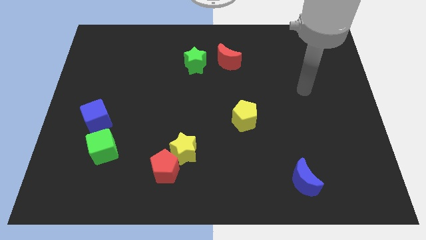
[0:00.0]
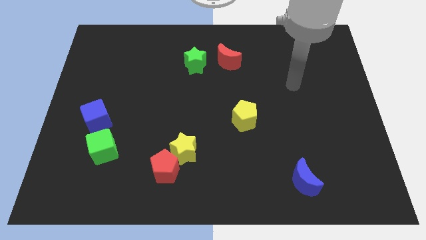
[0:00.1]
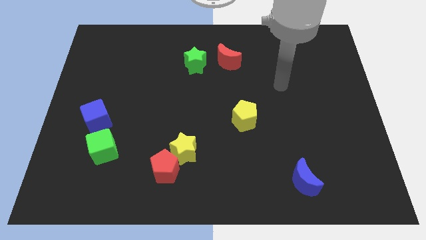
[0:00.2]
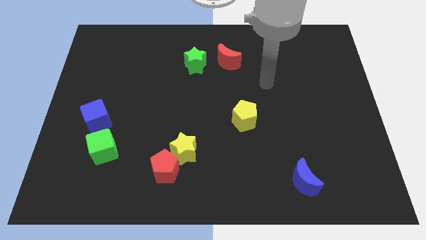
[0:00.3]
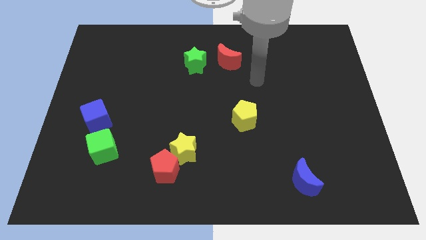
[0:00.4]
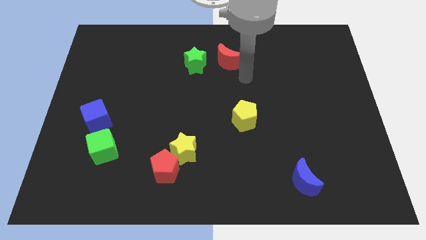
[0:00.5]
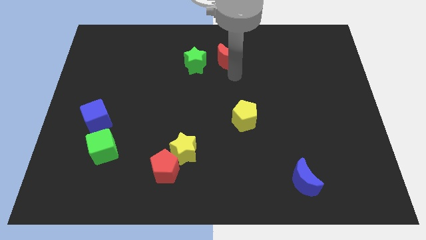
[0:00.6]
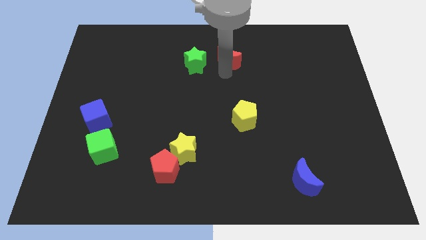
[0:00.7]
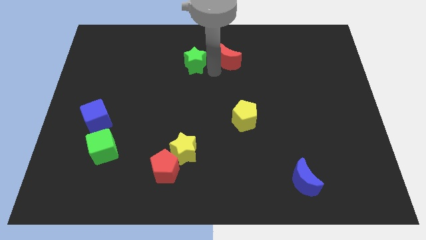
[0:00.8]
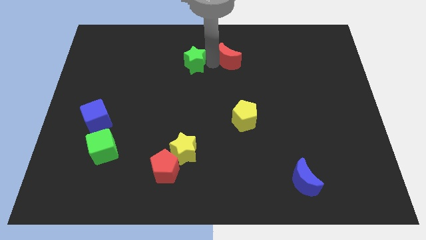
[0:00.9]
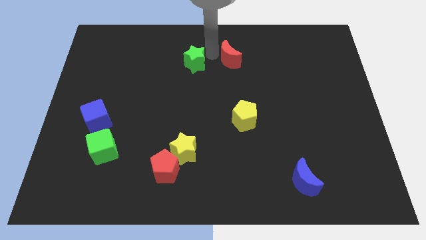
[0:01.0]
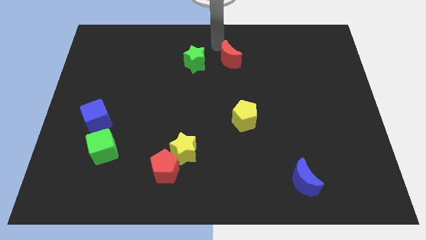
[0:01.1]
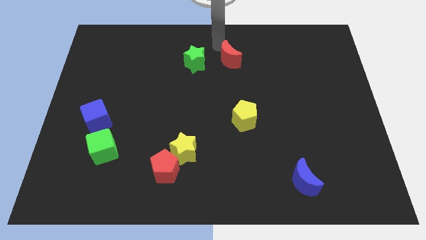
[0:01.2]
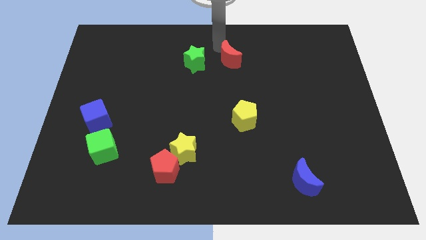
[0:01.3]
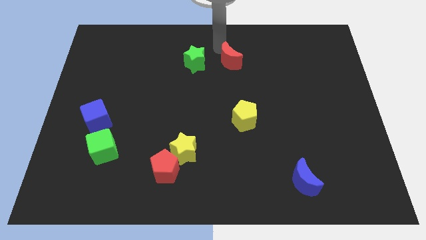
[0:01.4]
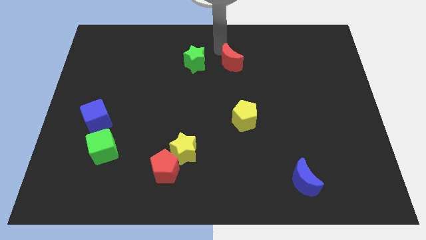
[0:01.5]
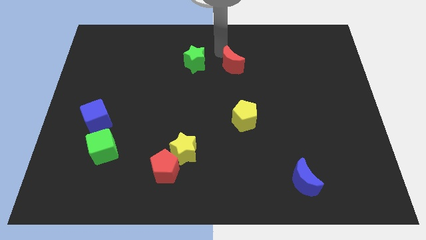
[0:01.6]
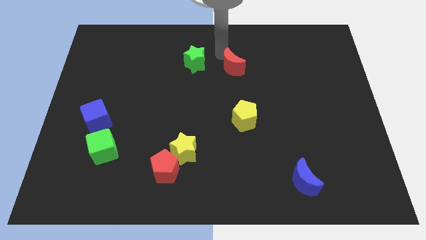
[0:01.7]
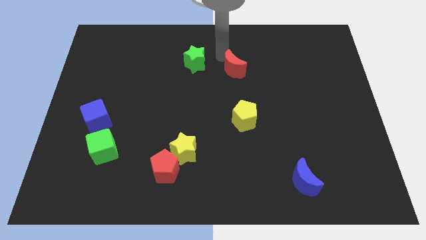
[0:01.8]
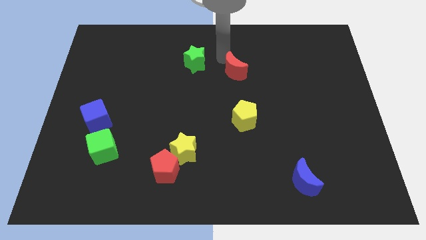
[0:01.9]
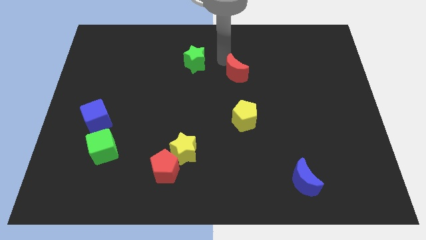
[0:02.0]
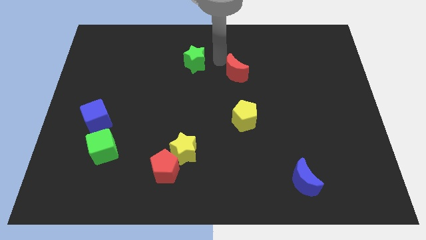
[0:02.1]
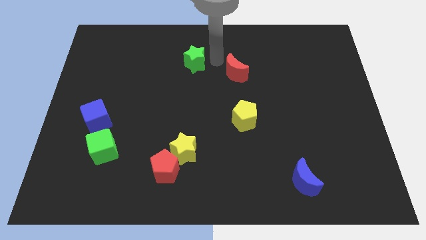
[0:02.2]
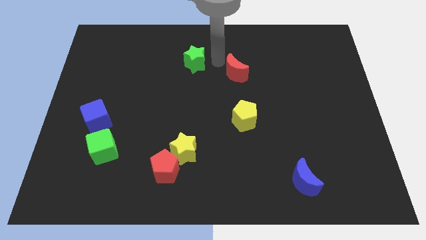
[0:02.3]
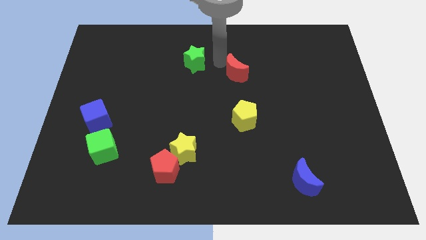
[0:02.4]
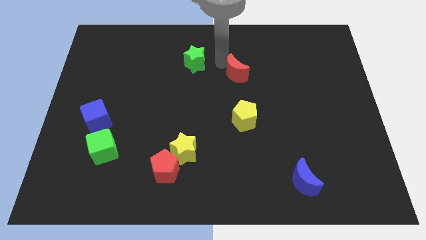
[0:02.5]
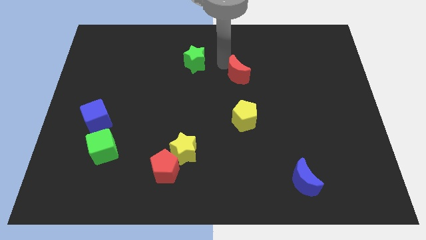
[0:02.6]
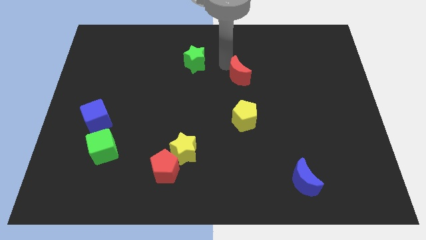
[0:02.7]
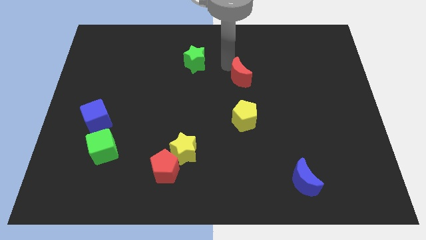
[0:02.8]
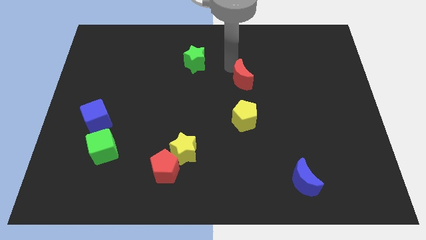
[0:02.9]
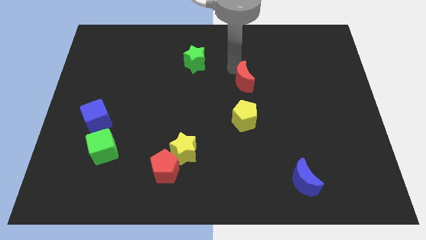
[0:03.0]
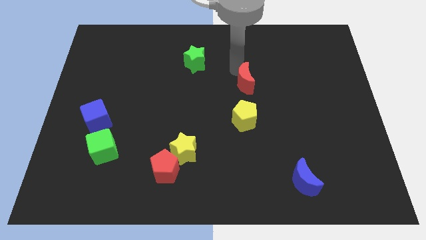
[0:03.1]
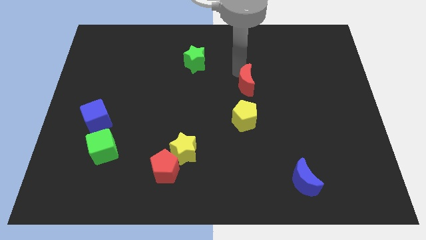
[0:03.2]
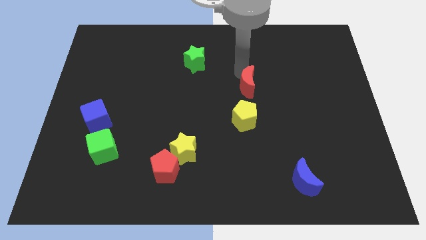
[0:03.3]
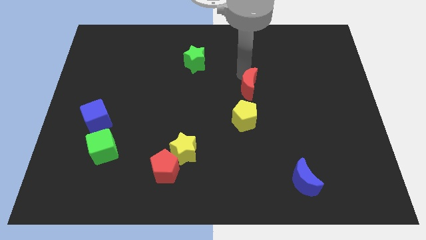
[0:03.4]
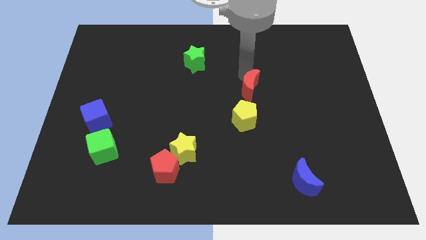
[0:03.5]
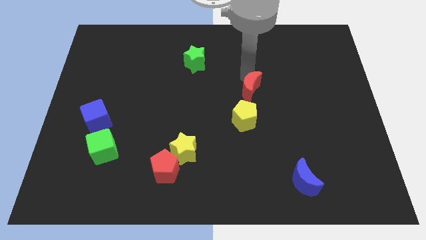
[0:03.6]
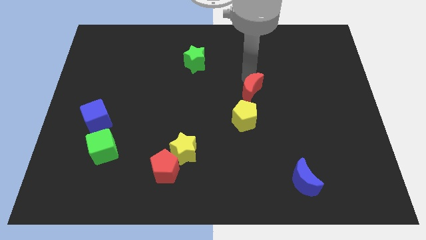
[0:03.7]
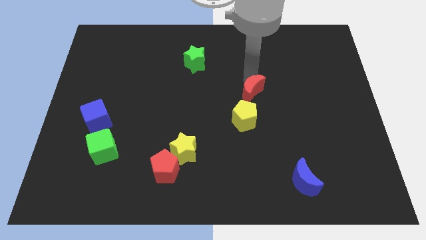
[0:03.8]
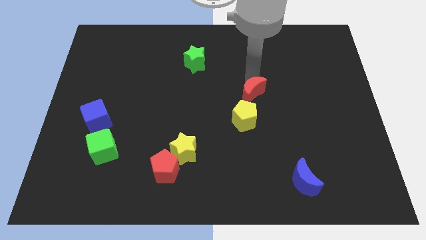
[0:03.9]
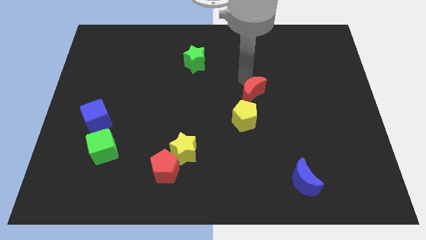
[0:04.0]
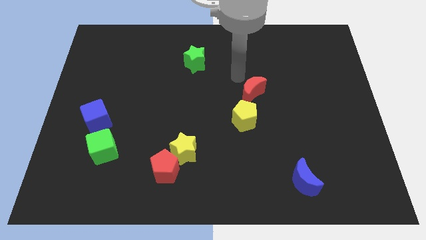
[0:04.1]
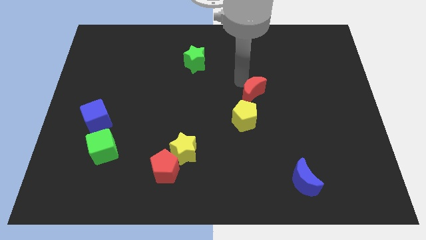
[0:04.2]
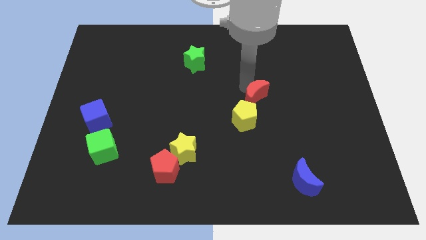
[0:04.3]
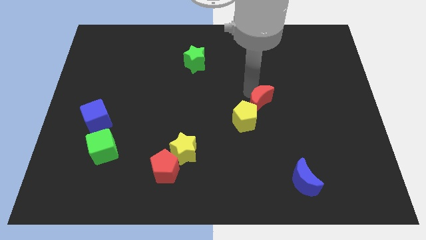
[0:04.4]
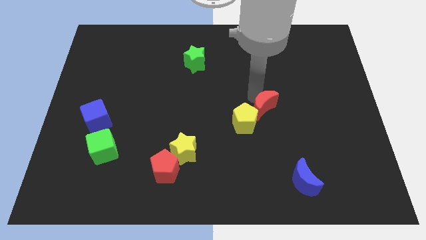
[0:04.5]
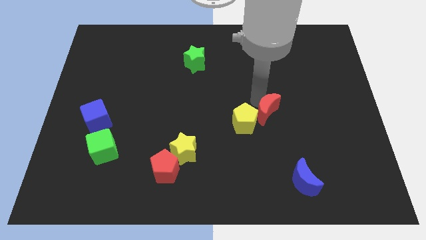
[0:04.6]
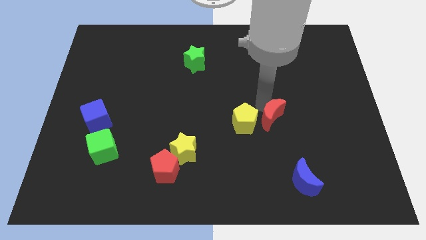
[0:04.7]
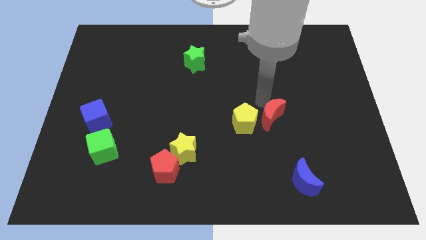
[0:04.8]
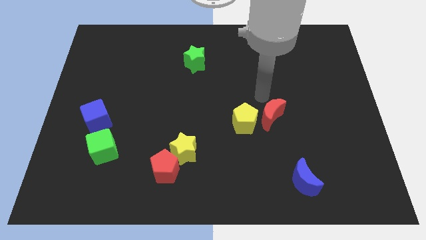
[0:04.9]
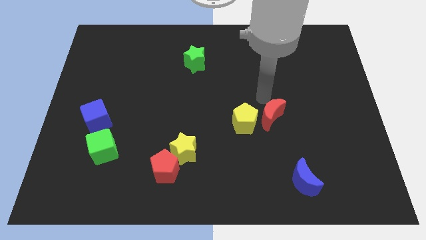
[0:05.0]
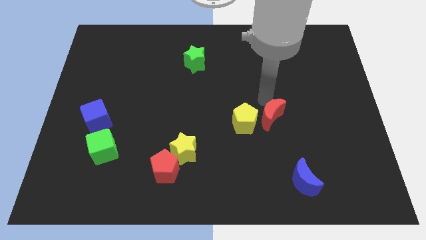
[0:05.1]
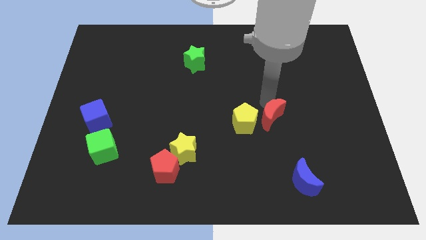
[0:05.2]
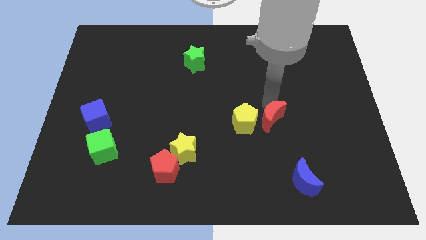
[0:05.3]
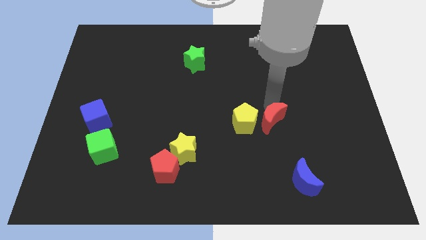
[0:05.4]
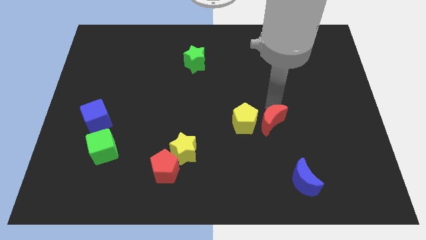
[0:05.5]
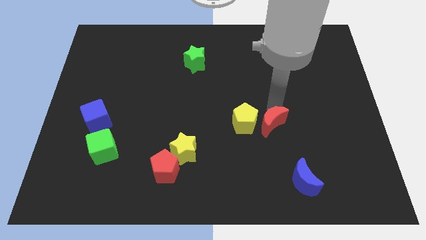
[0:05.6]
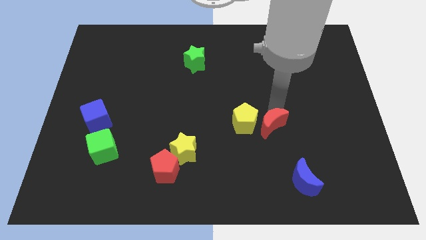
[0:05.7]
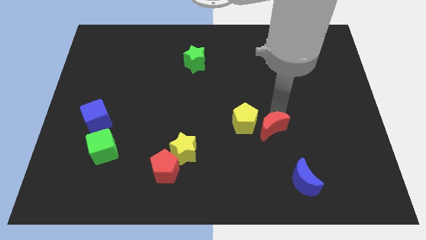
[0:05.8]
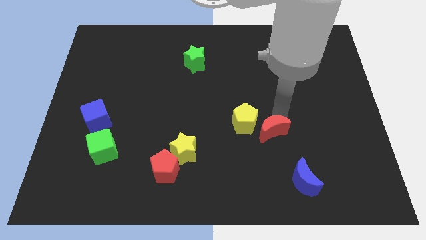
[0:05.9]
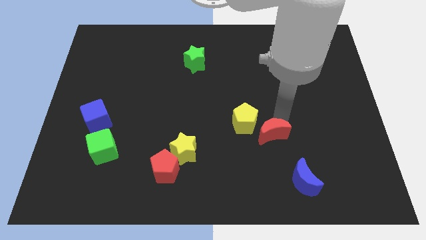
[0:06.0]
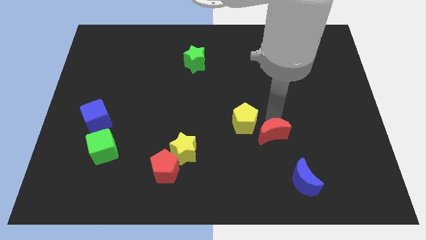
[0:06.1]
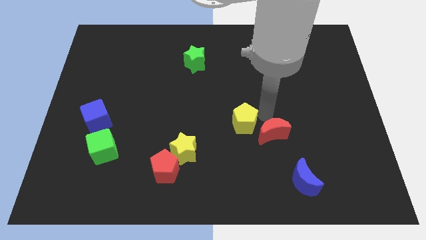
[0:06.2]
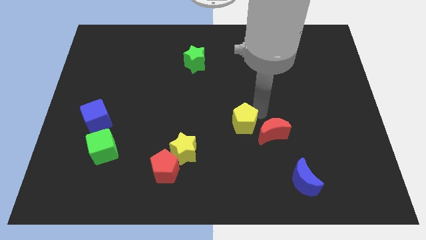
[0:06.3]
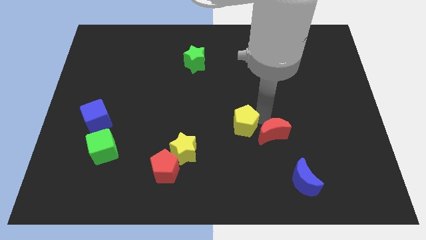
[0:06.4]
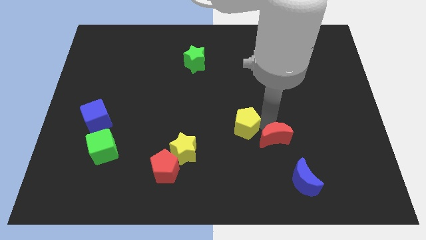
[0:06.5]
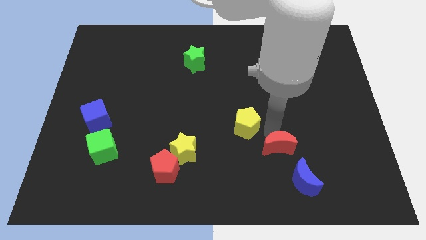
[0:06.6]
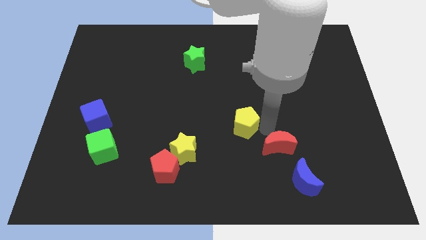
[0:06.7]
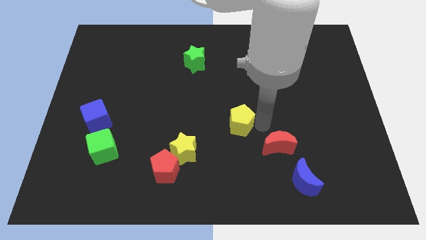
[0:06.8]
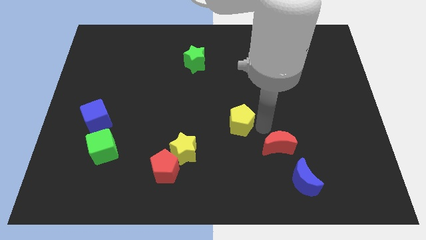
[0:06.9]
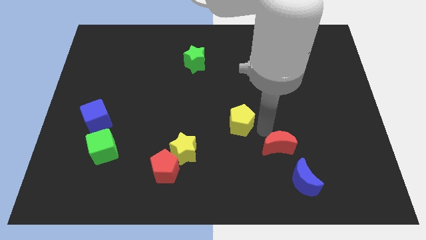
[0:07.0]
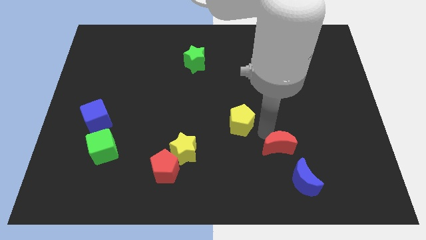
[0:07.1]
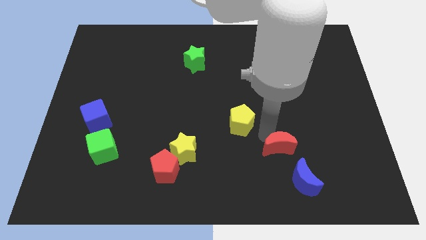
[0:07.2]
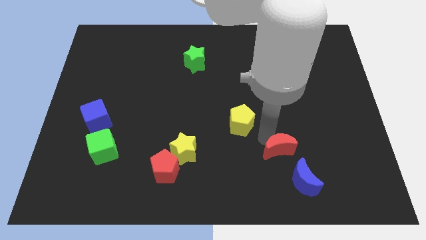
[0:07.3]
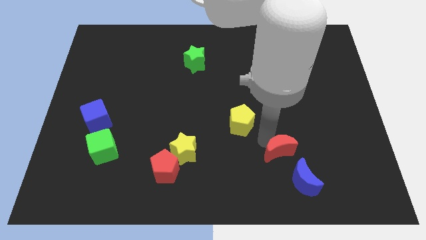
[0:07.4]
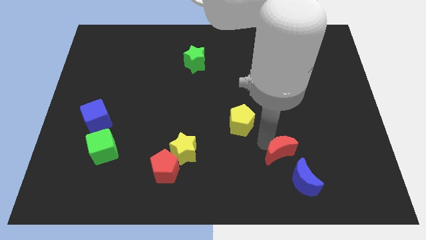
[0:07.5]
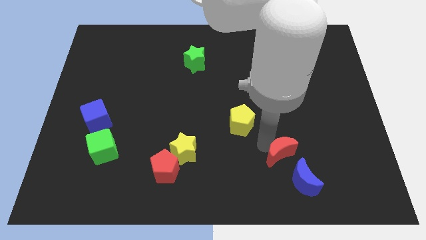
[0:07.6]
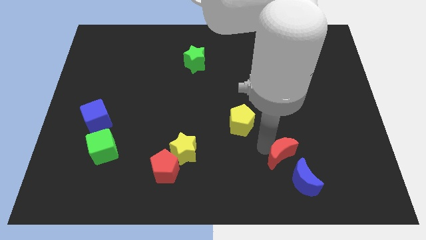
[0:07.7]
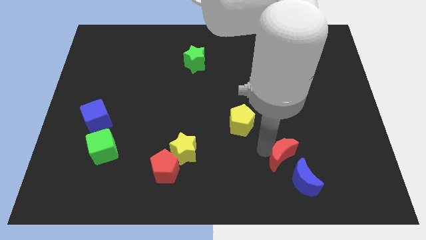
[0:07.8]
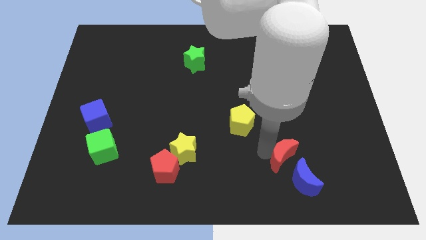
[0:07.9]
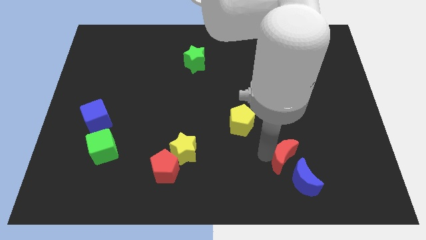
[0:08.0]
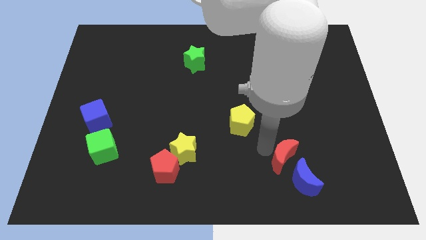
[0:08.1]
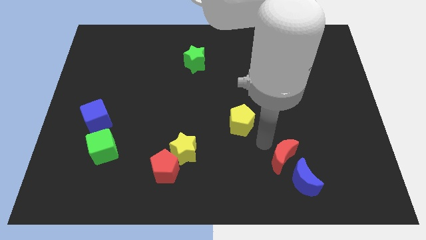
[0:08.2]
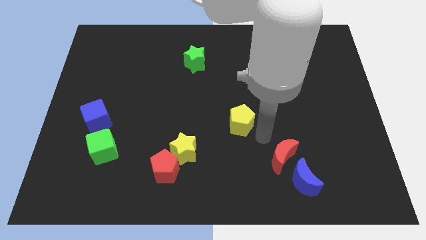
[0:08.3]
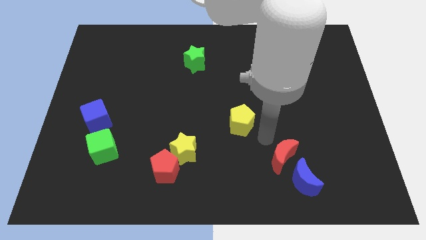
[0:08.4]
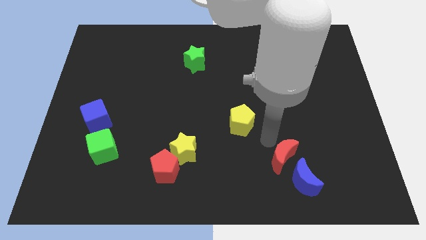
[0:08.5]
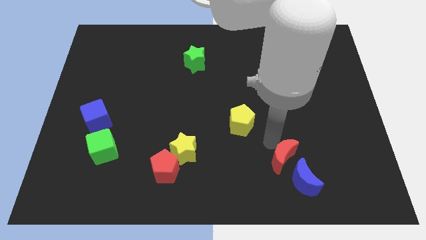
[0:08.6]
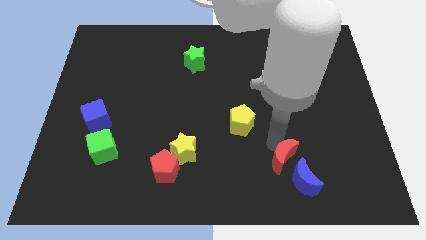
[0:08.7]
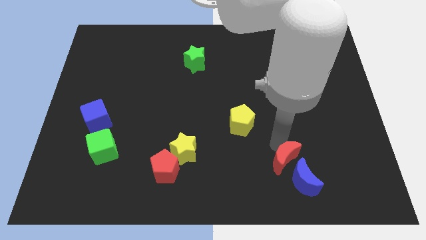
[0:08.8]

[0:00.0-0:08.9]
move the red moon towards the blue moon
